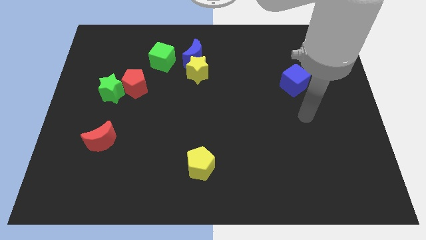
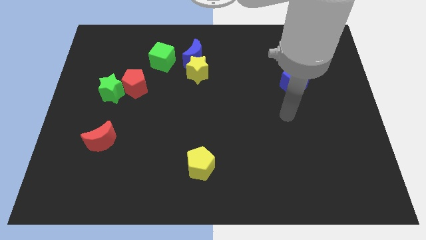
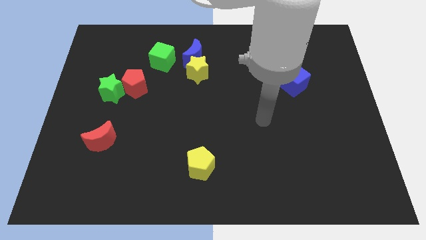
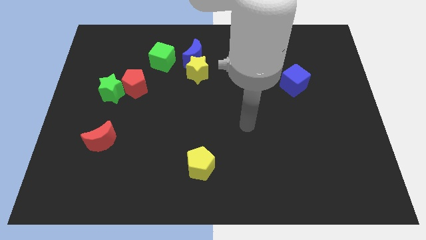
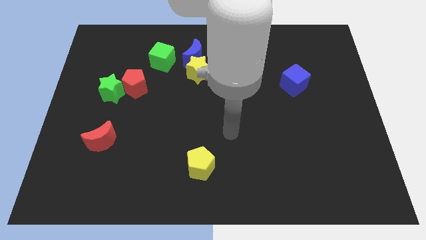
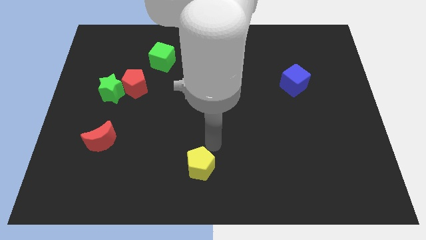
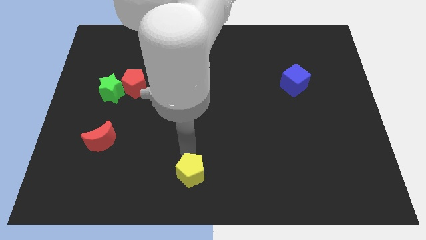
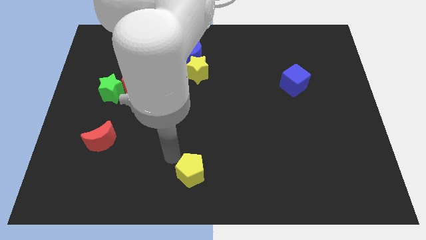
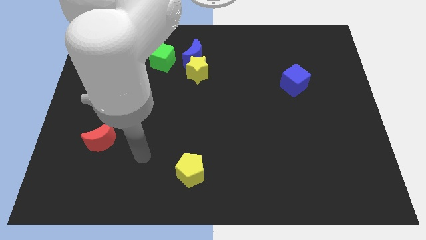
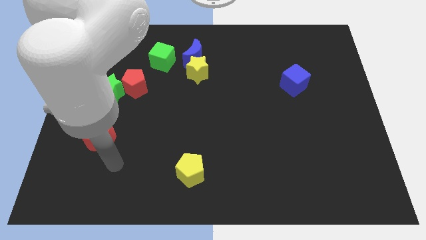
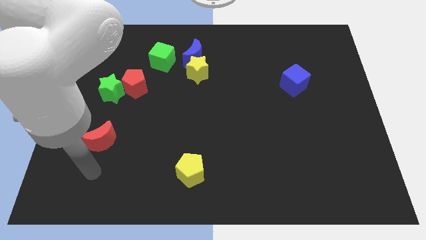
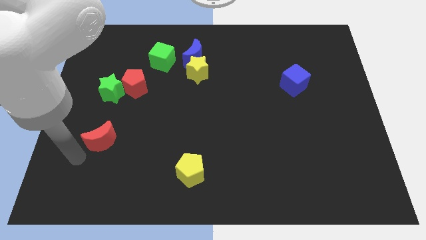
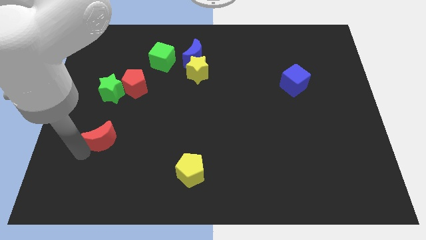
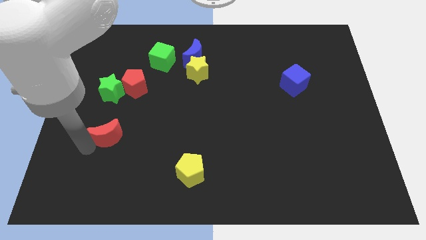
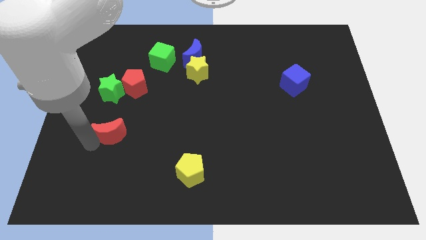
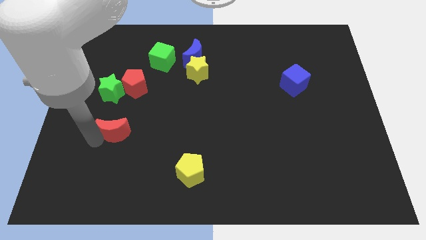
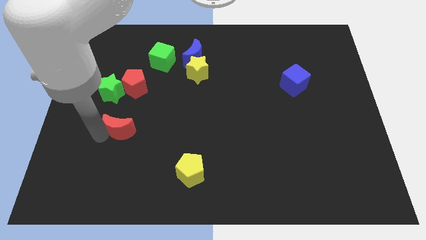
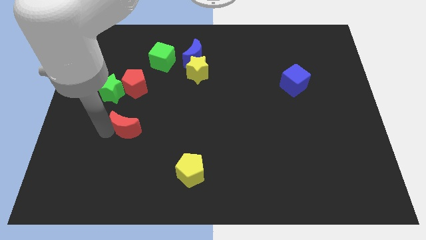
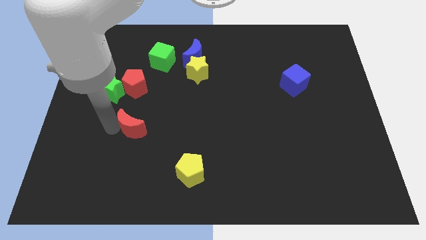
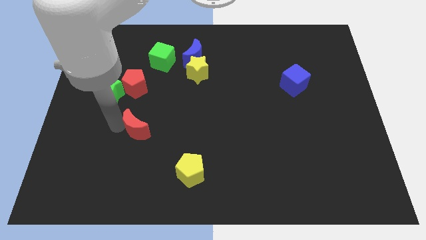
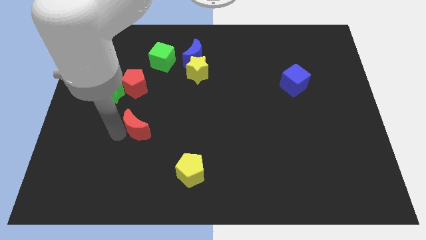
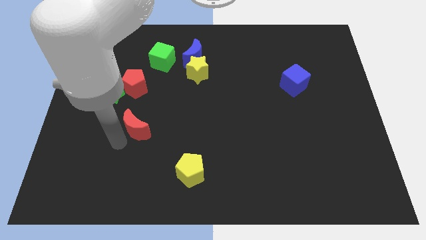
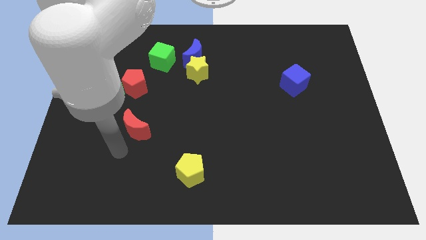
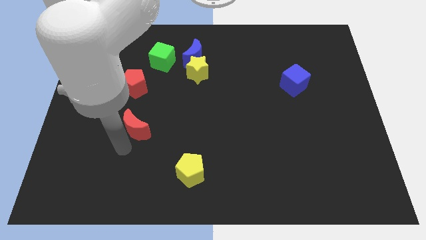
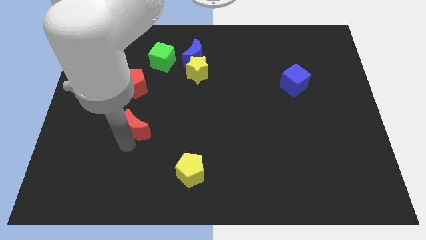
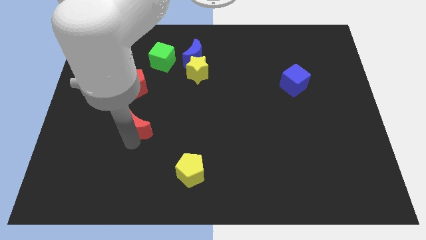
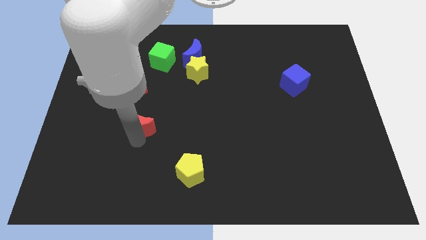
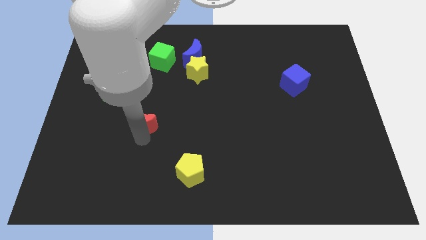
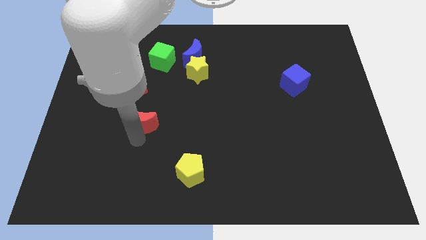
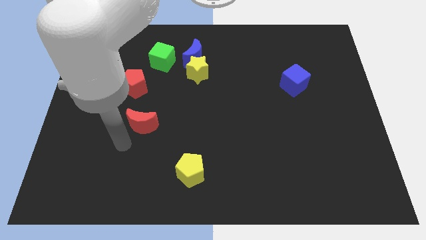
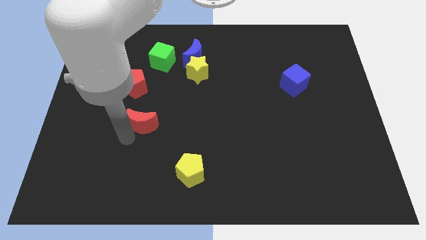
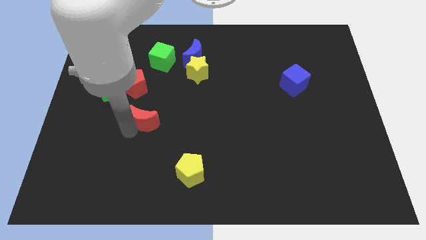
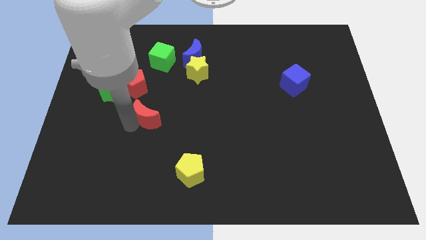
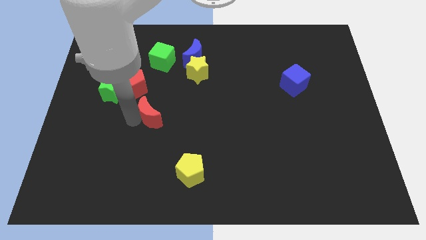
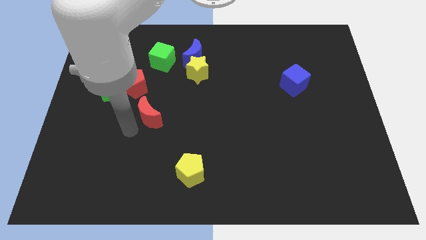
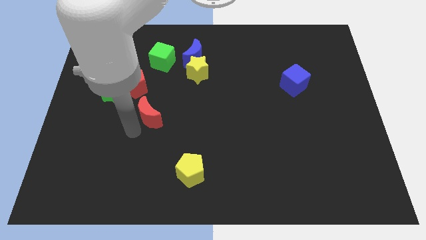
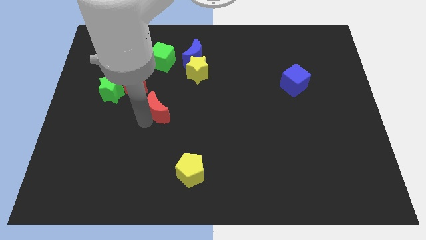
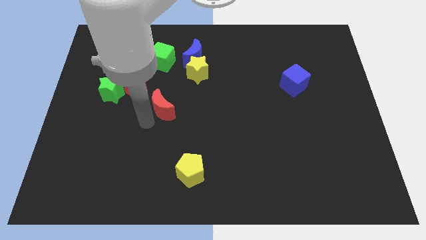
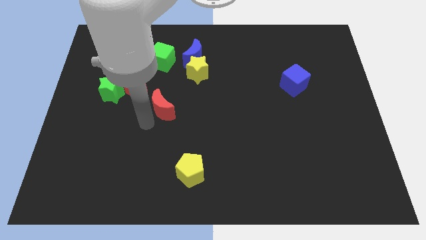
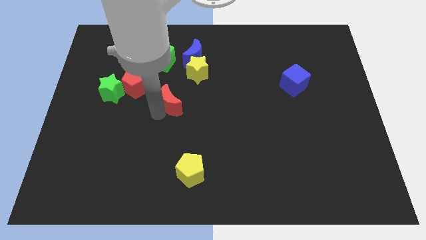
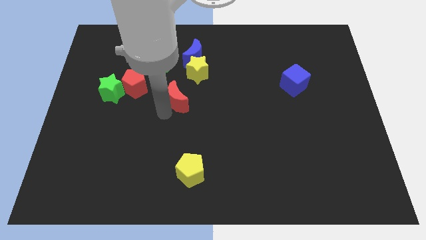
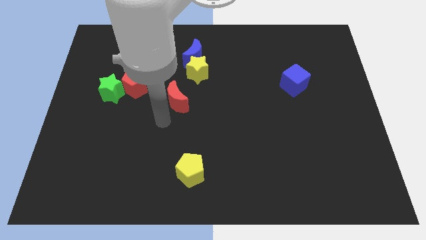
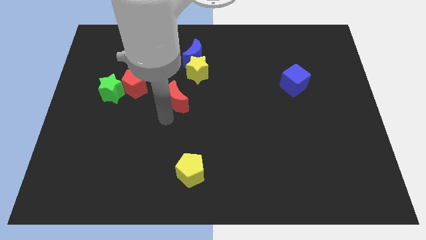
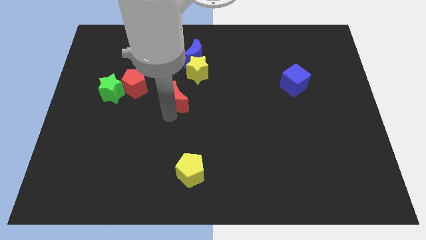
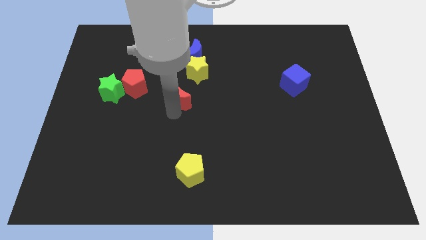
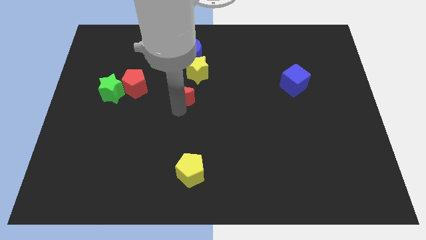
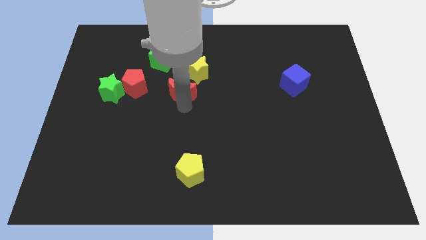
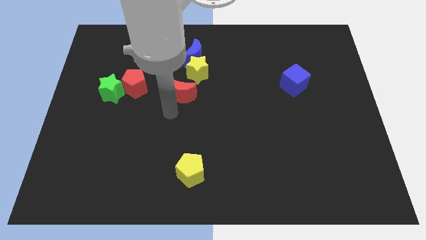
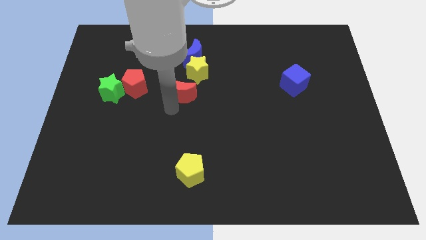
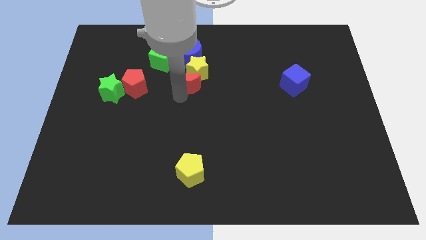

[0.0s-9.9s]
slide the red moon next to the yellow star

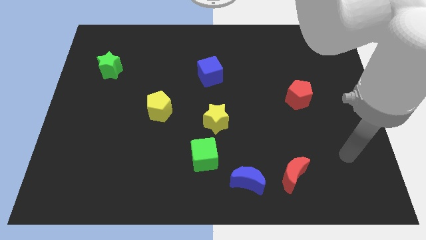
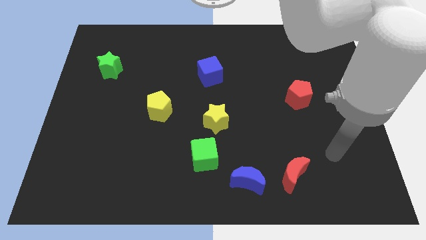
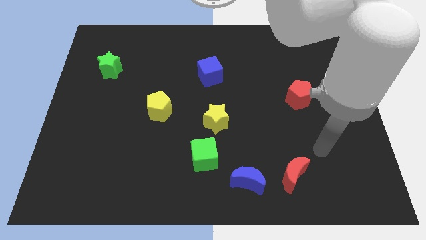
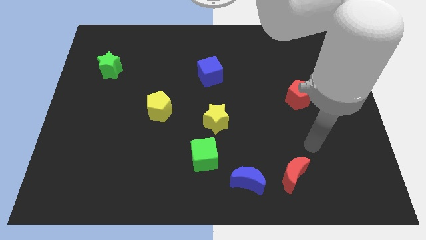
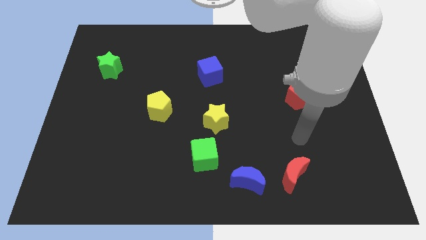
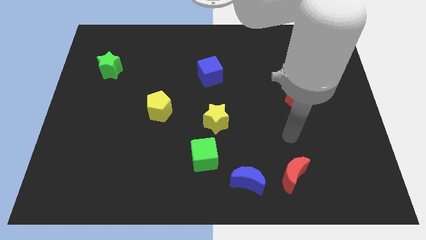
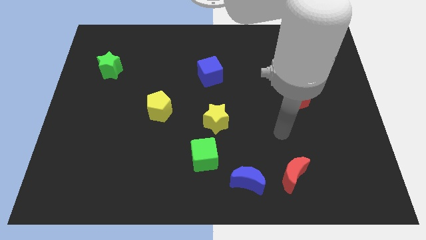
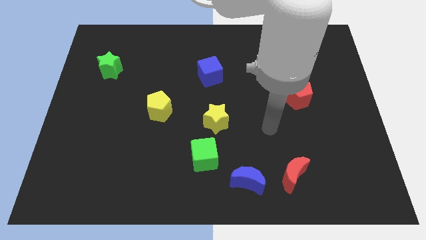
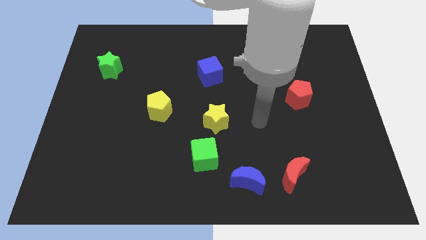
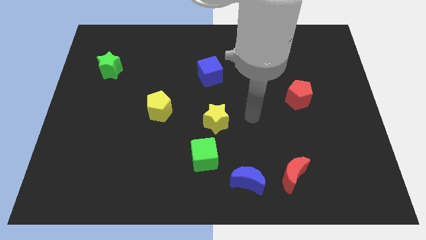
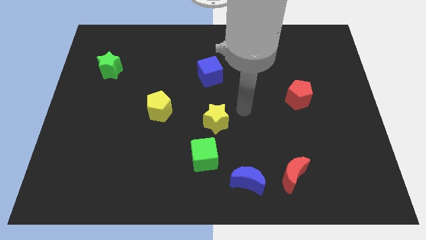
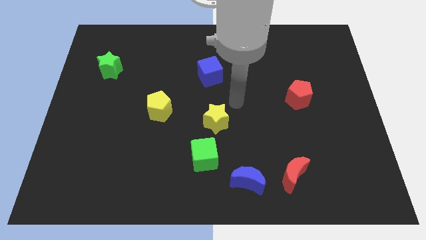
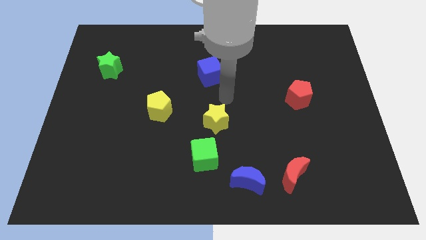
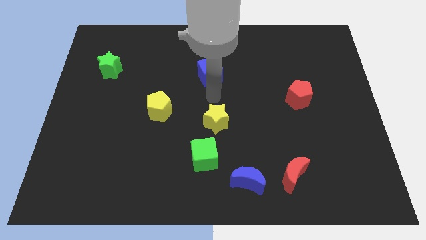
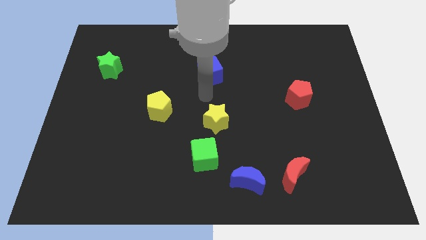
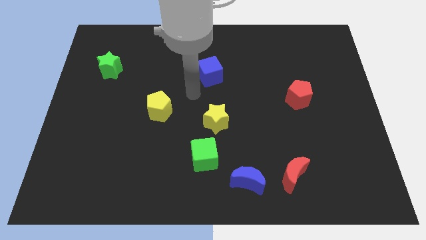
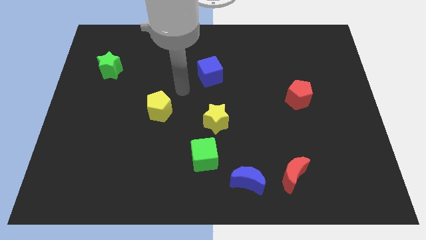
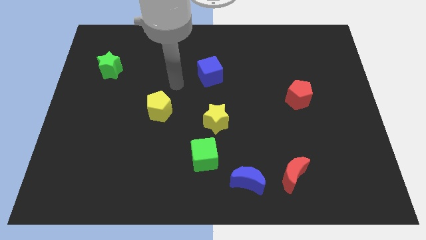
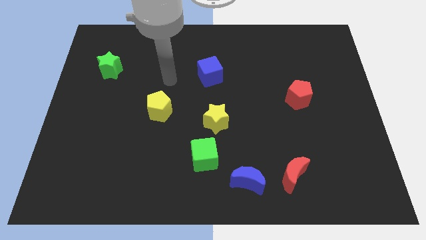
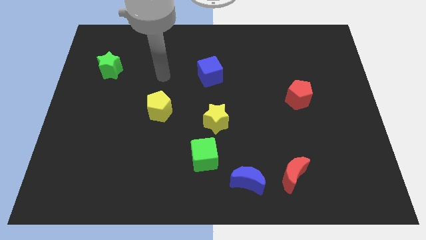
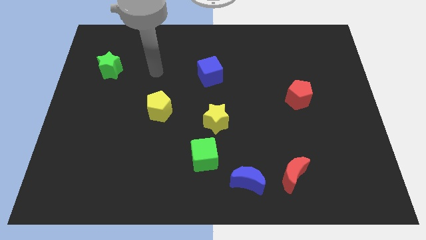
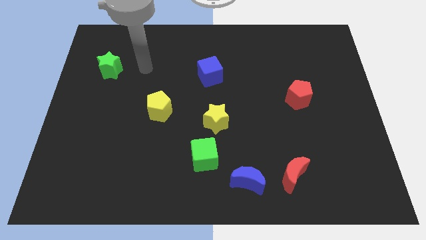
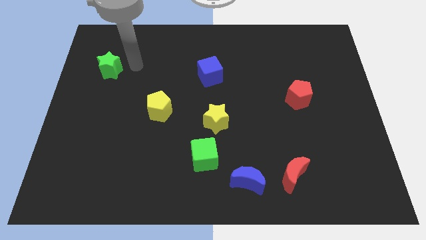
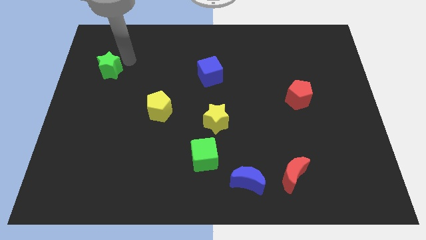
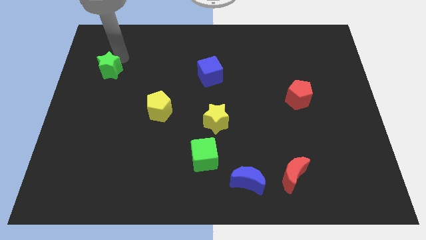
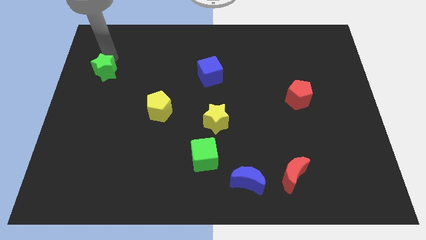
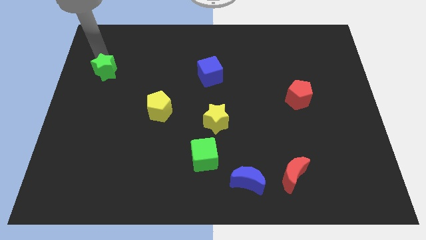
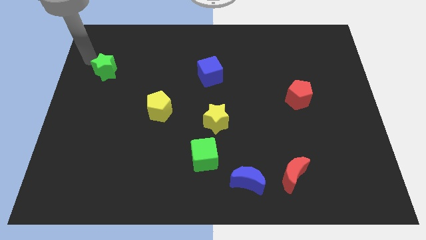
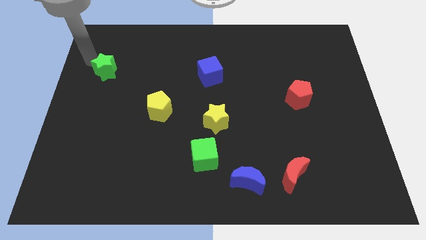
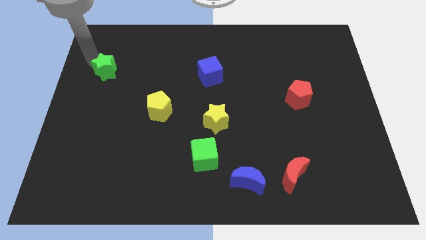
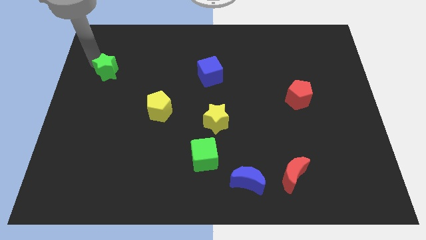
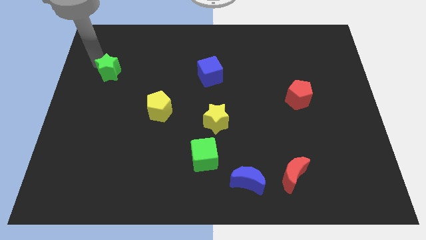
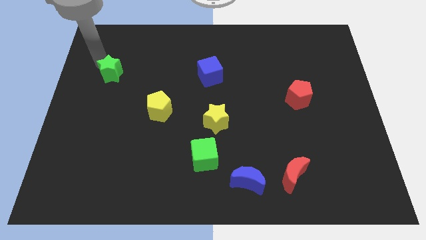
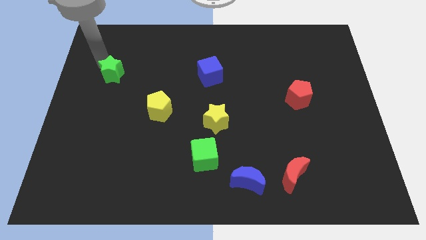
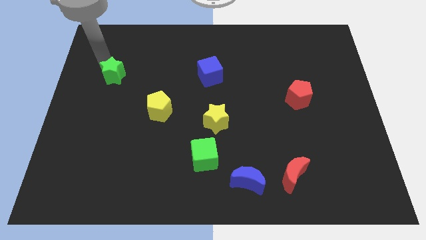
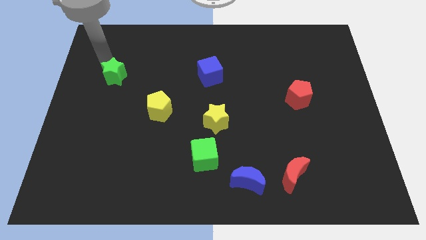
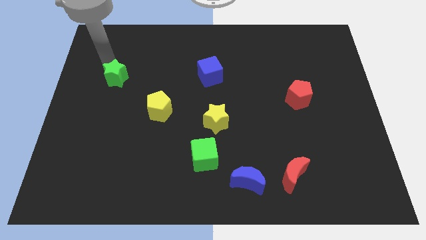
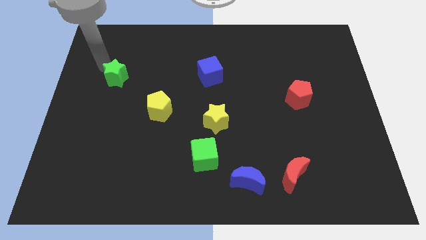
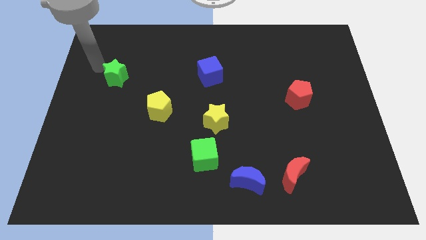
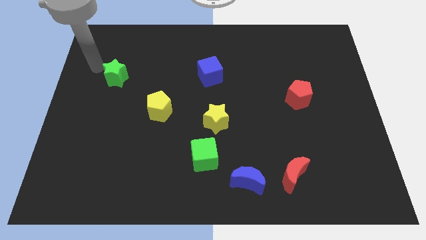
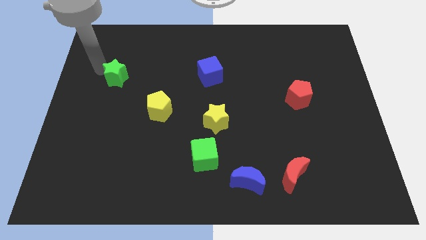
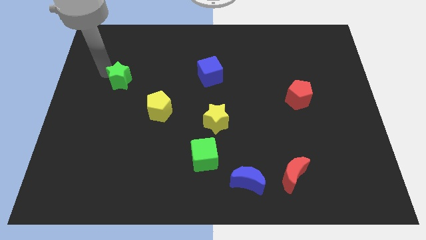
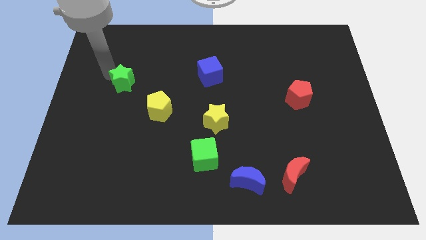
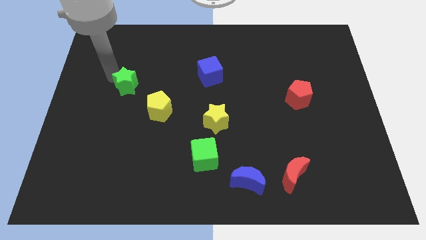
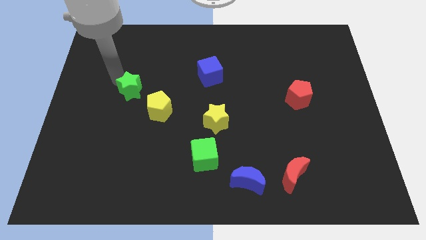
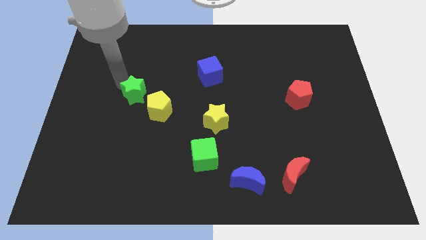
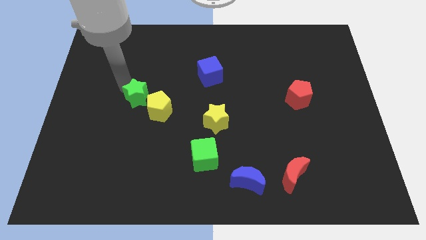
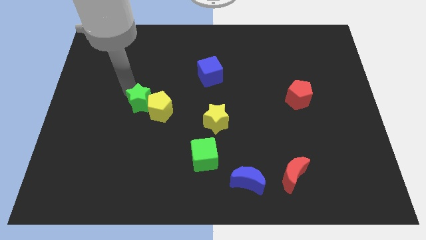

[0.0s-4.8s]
push the green star close to the yellow pentagon
